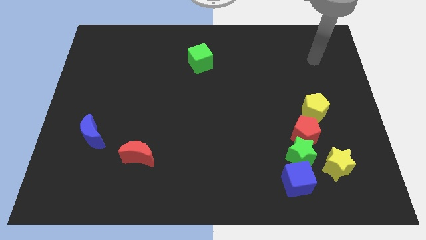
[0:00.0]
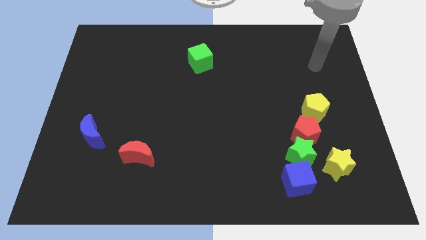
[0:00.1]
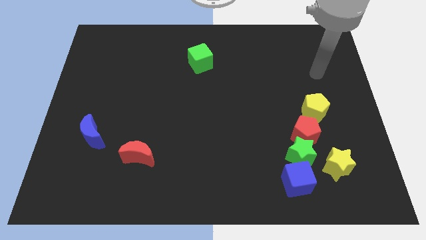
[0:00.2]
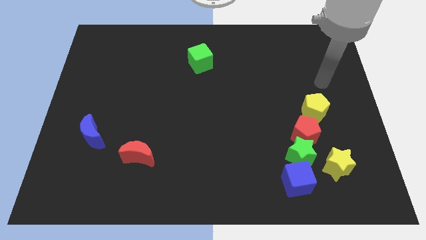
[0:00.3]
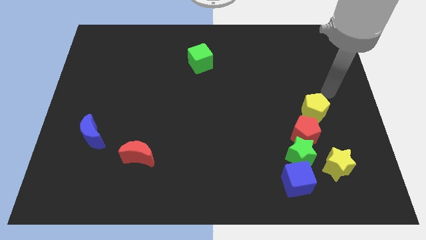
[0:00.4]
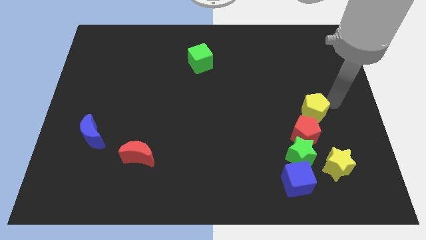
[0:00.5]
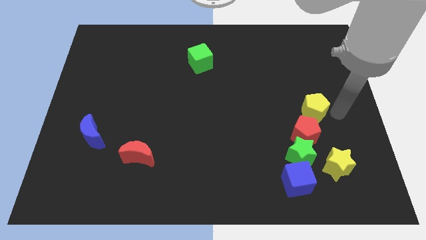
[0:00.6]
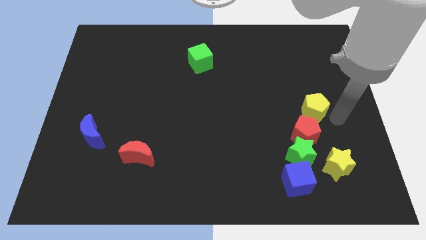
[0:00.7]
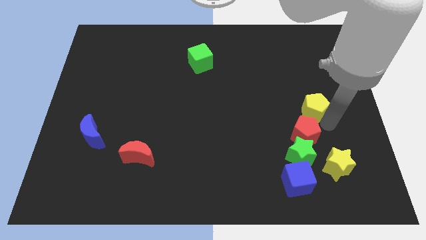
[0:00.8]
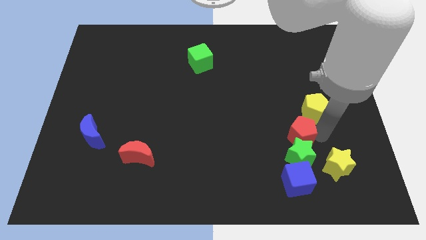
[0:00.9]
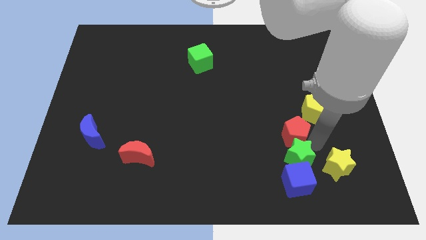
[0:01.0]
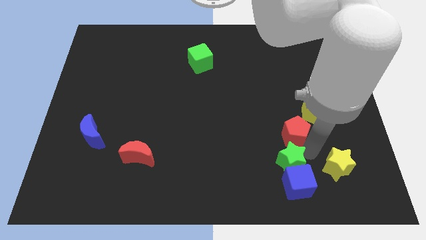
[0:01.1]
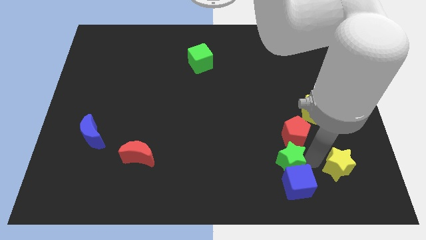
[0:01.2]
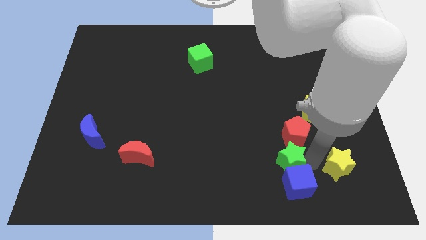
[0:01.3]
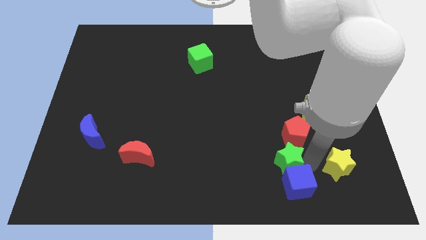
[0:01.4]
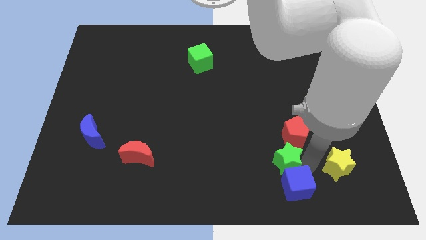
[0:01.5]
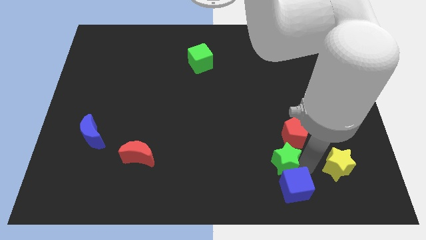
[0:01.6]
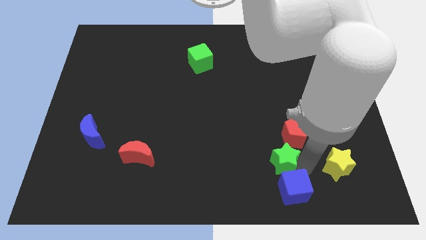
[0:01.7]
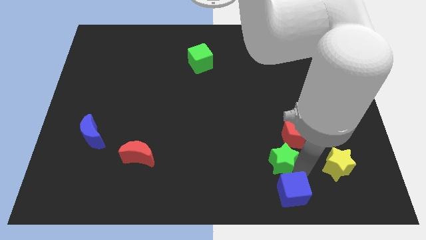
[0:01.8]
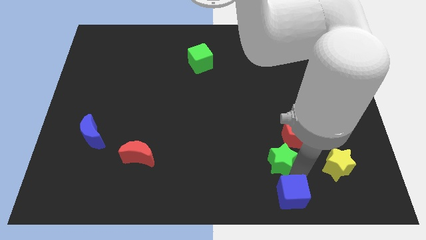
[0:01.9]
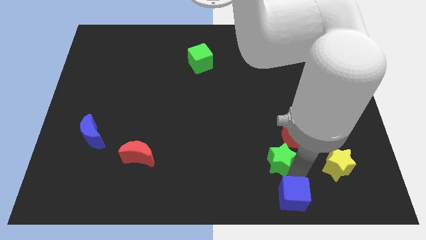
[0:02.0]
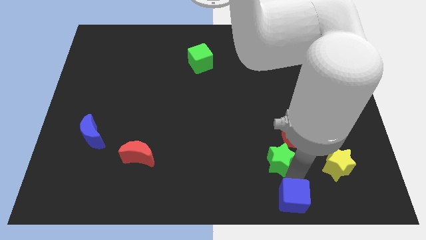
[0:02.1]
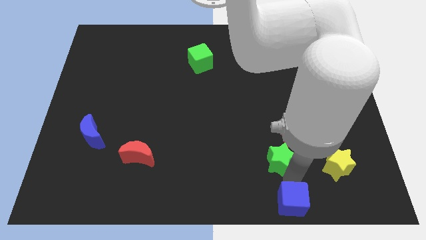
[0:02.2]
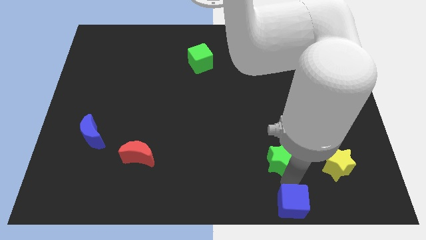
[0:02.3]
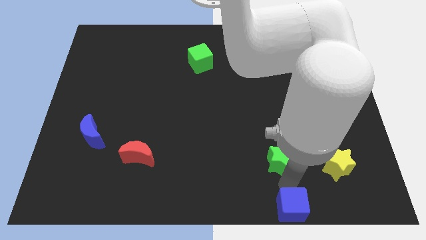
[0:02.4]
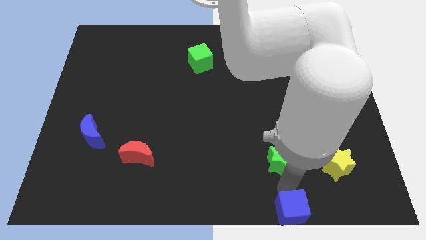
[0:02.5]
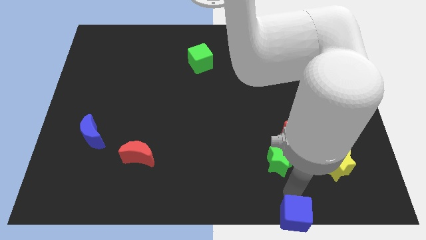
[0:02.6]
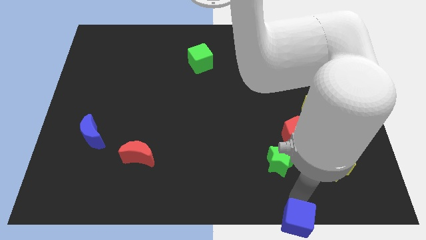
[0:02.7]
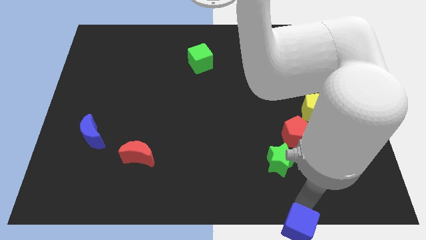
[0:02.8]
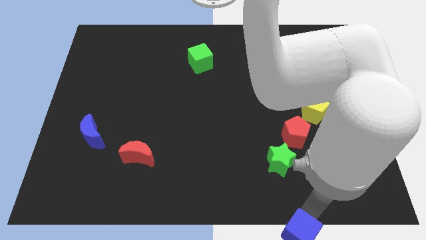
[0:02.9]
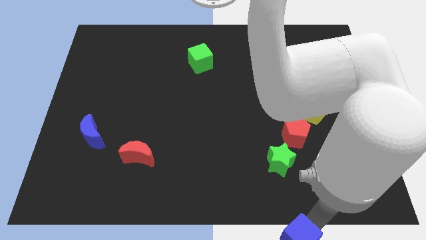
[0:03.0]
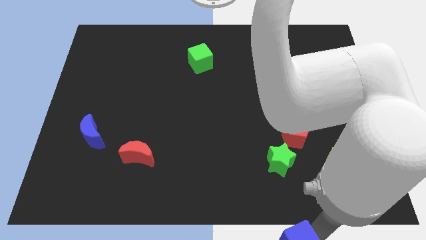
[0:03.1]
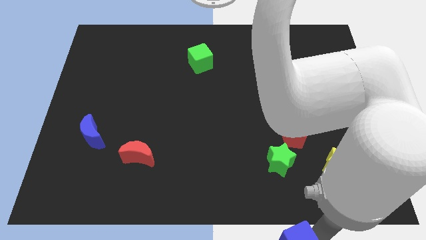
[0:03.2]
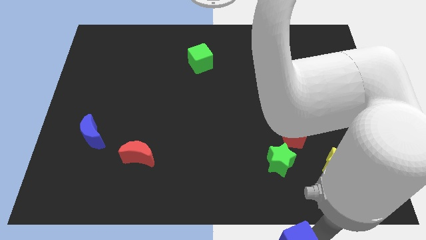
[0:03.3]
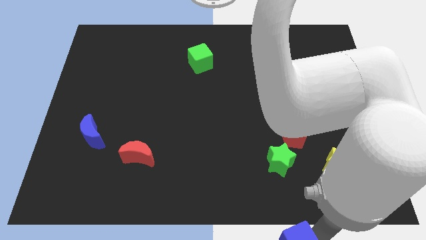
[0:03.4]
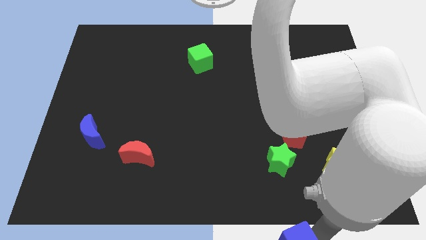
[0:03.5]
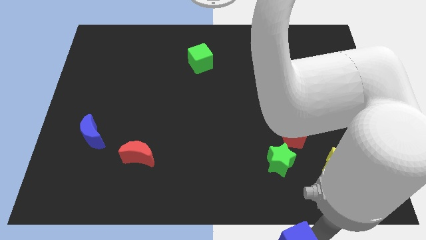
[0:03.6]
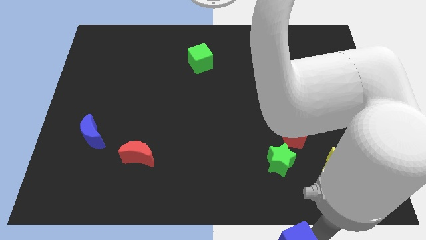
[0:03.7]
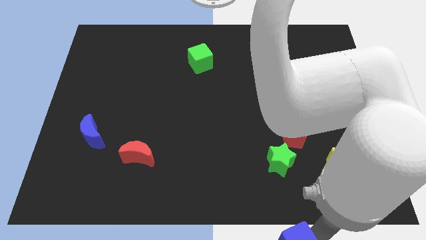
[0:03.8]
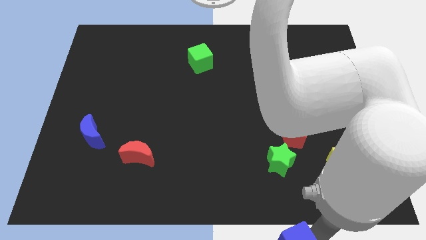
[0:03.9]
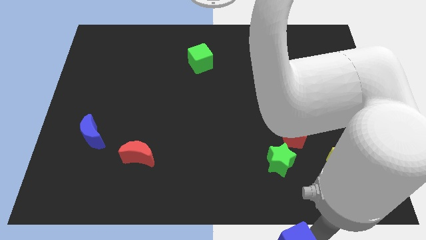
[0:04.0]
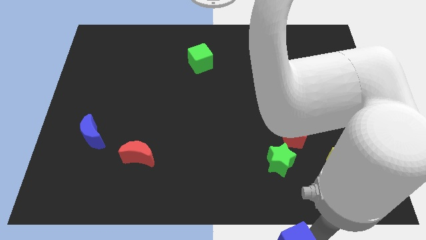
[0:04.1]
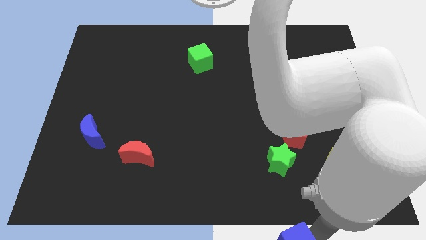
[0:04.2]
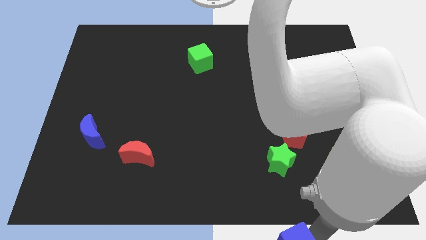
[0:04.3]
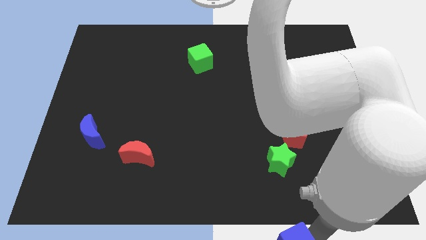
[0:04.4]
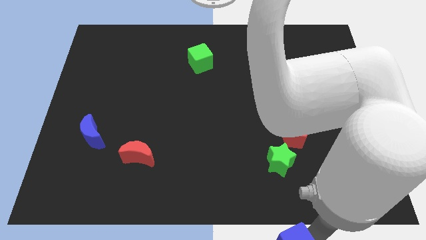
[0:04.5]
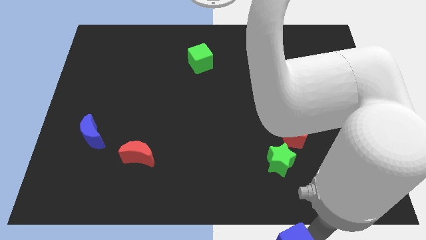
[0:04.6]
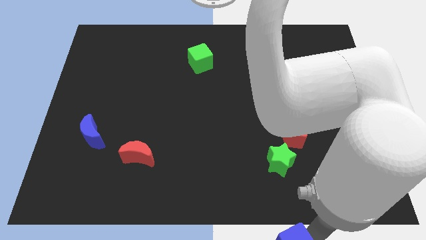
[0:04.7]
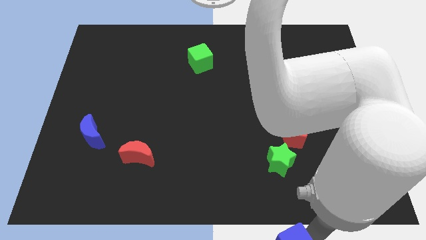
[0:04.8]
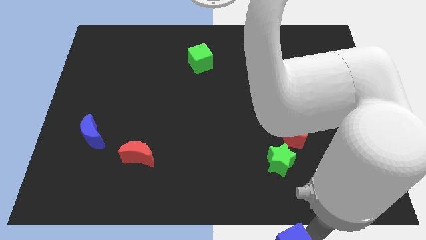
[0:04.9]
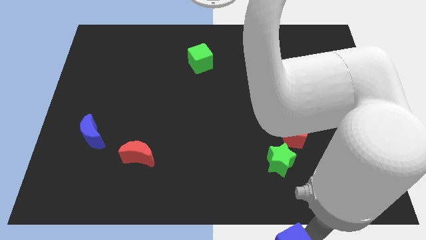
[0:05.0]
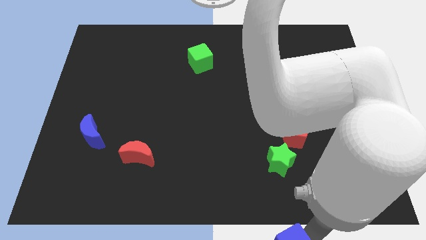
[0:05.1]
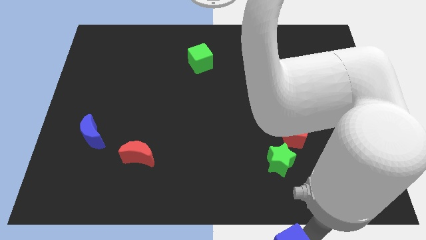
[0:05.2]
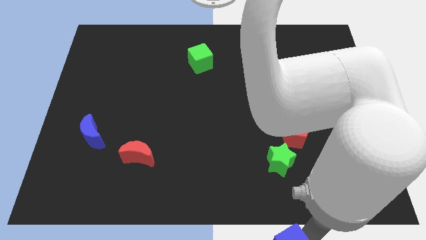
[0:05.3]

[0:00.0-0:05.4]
push the blue cube to the bottom side

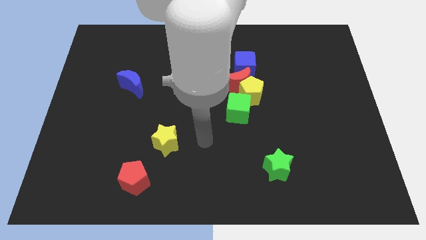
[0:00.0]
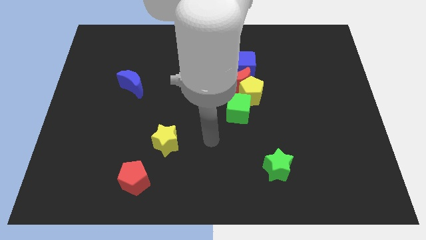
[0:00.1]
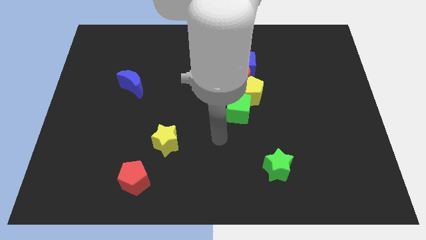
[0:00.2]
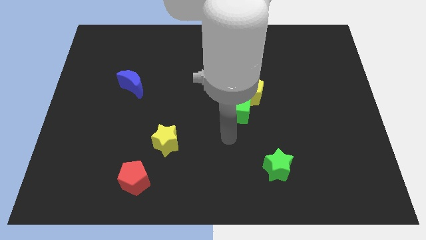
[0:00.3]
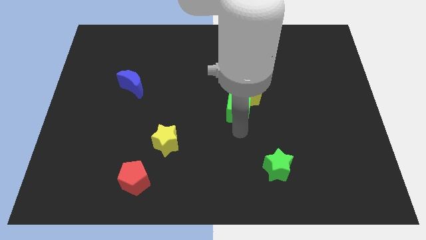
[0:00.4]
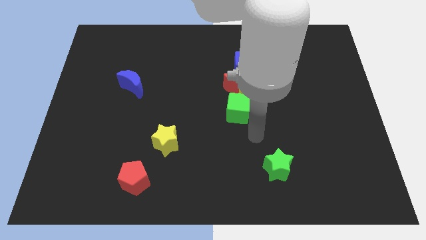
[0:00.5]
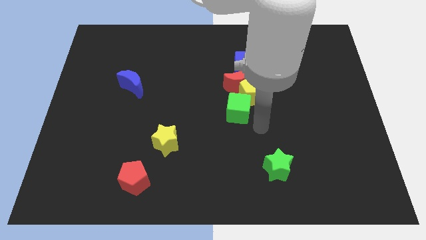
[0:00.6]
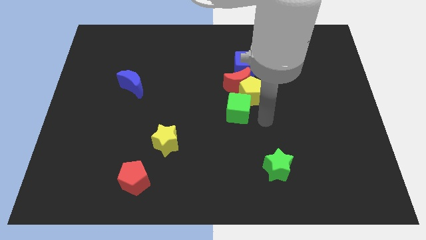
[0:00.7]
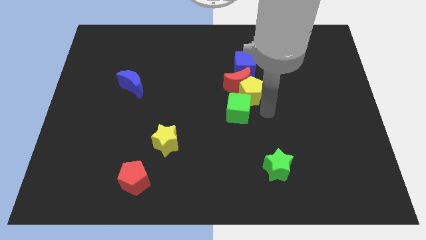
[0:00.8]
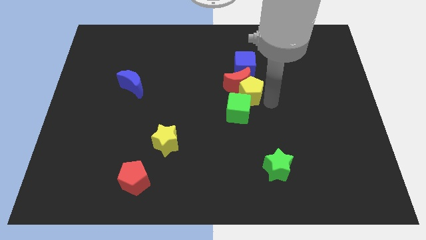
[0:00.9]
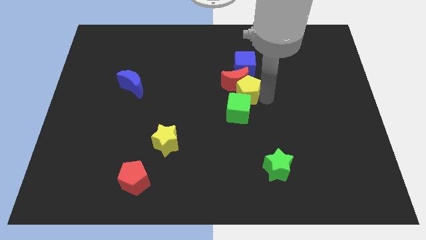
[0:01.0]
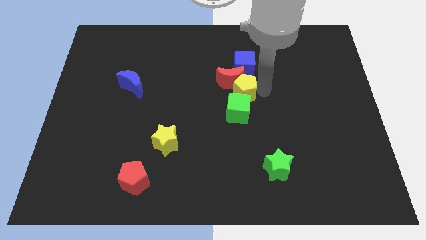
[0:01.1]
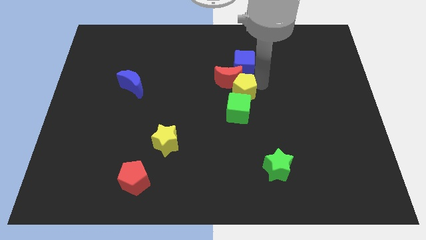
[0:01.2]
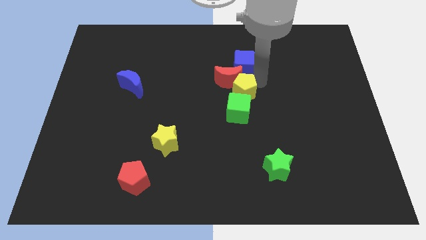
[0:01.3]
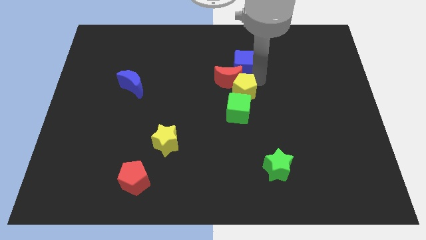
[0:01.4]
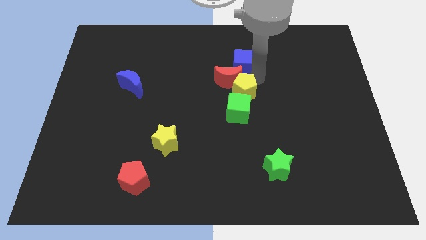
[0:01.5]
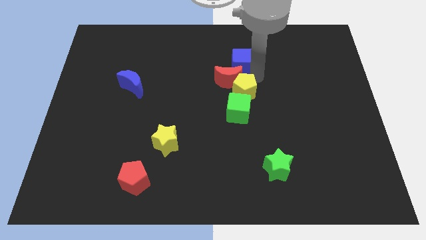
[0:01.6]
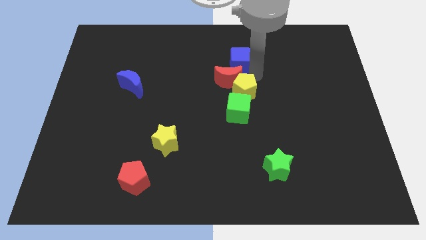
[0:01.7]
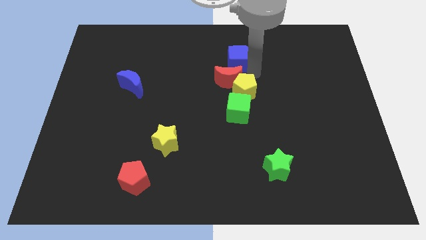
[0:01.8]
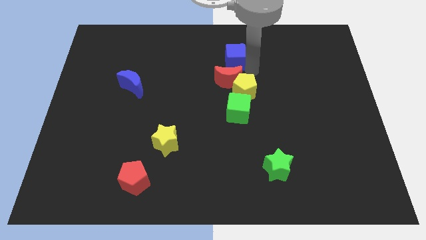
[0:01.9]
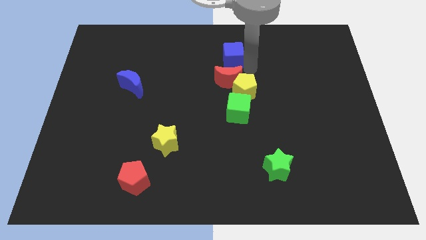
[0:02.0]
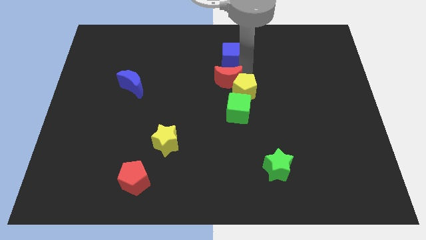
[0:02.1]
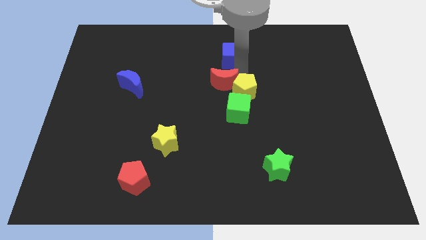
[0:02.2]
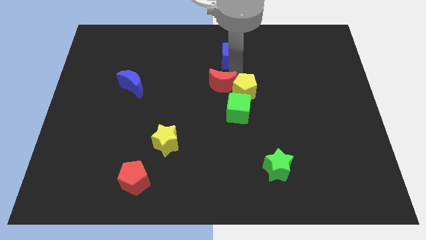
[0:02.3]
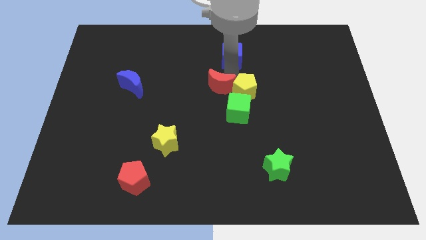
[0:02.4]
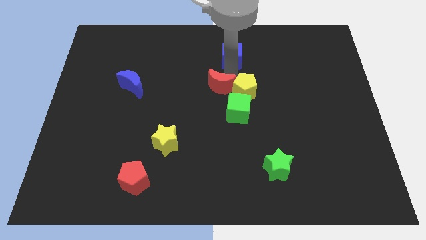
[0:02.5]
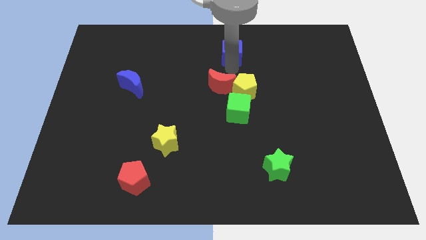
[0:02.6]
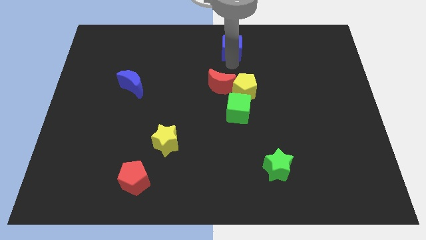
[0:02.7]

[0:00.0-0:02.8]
slide the blue cube to the top side
